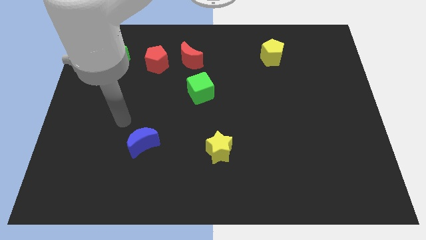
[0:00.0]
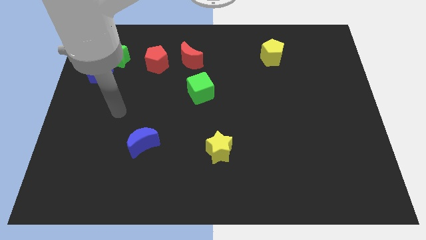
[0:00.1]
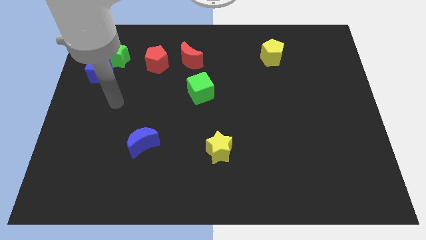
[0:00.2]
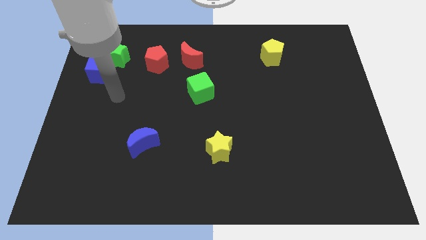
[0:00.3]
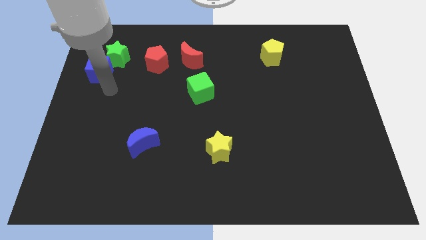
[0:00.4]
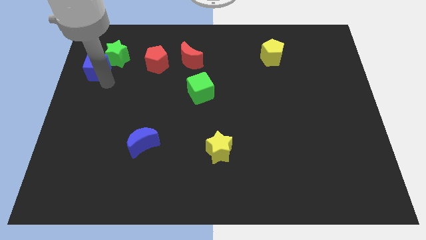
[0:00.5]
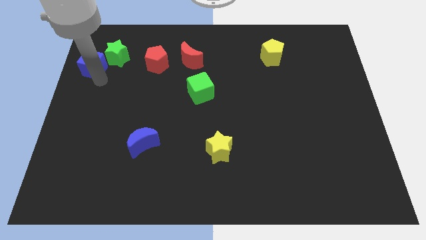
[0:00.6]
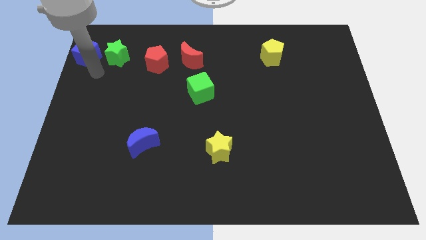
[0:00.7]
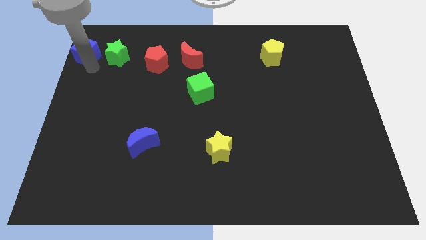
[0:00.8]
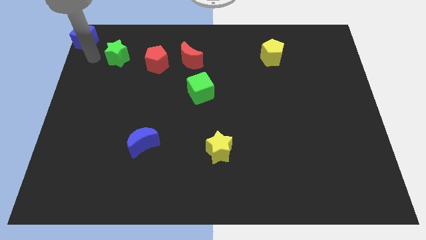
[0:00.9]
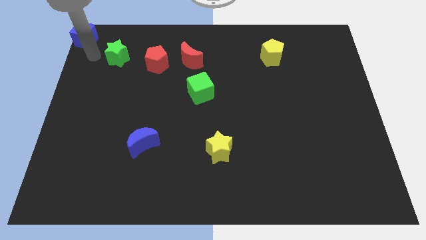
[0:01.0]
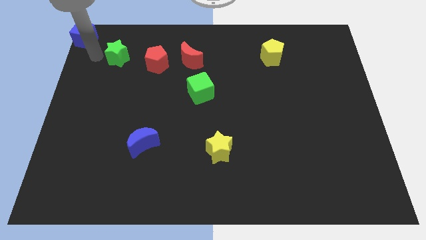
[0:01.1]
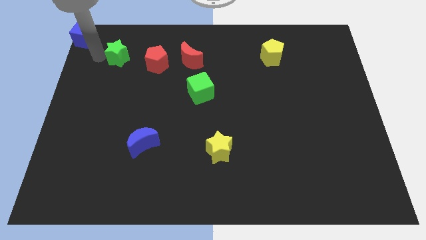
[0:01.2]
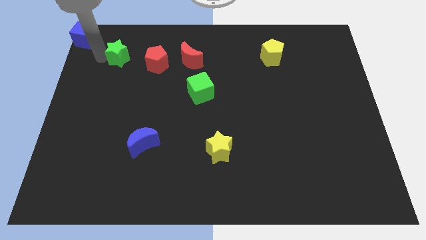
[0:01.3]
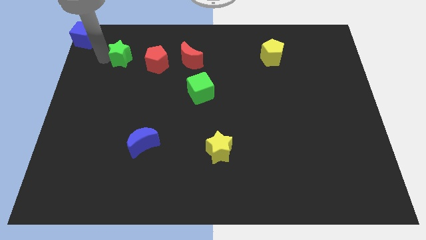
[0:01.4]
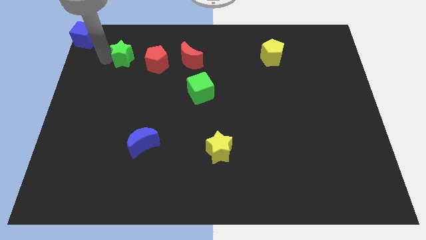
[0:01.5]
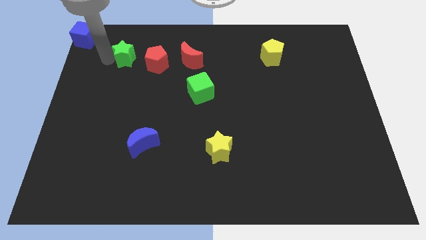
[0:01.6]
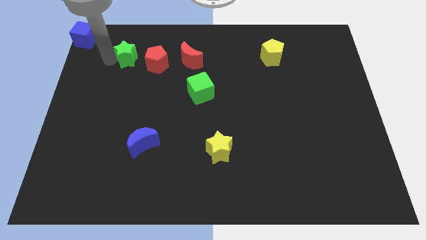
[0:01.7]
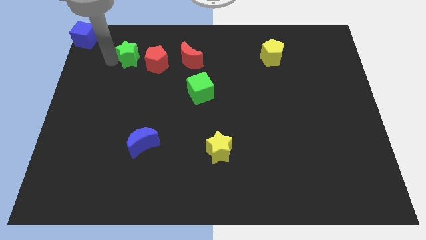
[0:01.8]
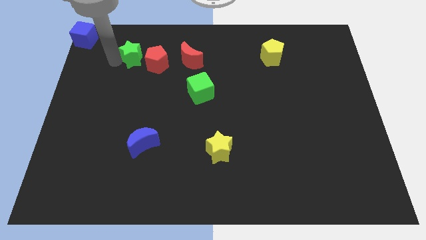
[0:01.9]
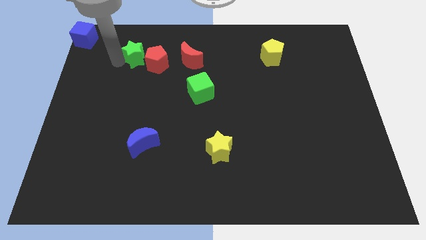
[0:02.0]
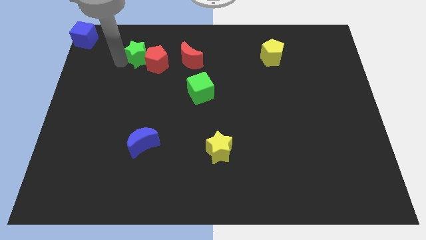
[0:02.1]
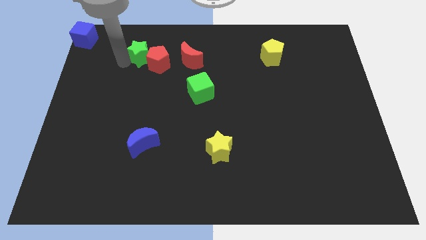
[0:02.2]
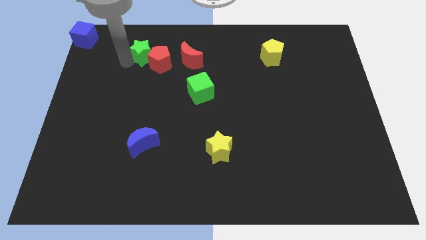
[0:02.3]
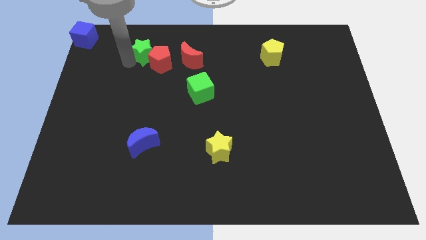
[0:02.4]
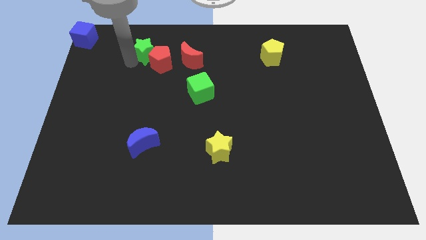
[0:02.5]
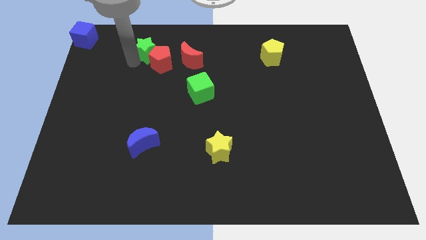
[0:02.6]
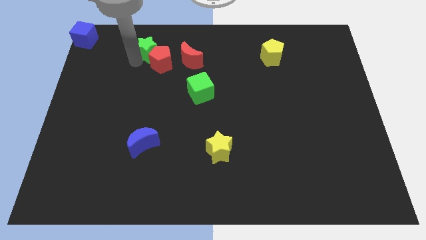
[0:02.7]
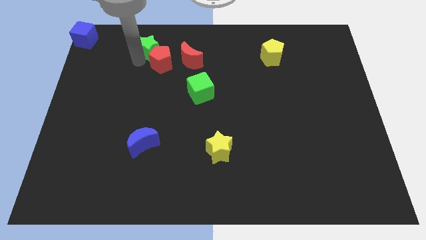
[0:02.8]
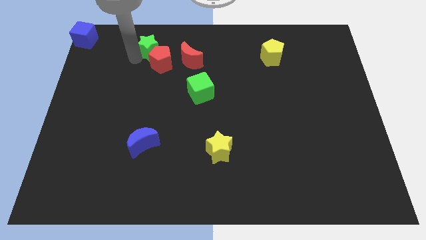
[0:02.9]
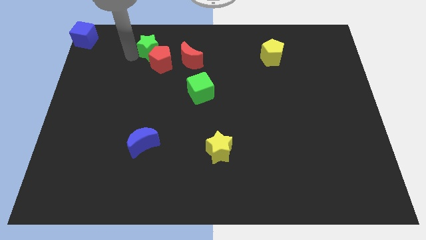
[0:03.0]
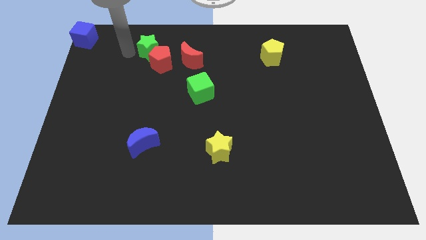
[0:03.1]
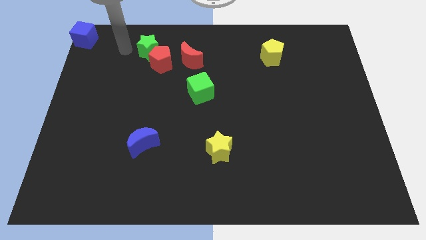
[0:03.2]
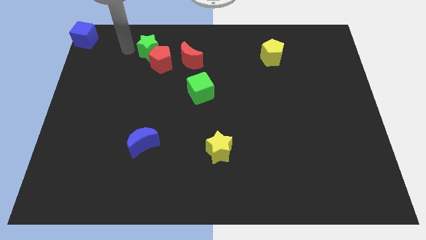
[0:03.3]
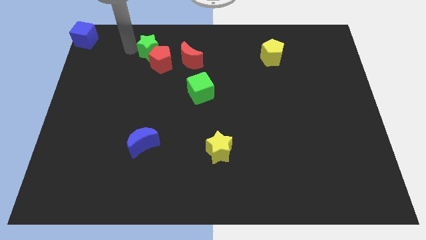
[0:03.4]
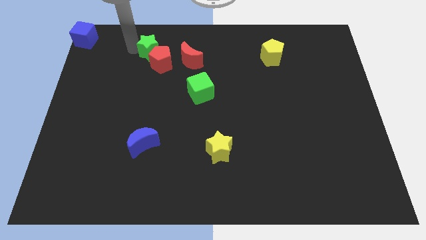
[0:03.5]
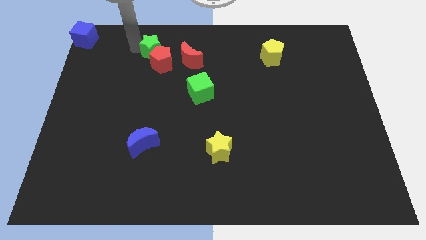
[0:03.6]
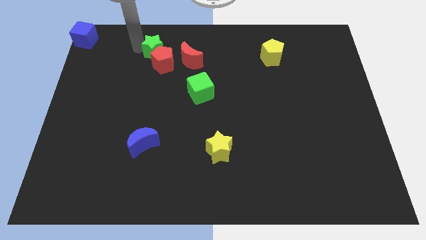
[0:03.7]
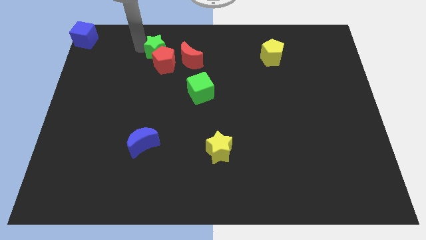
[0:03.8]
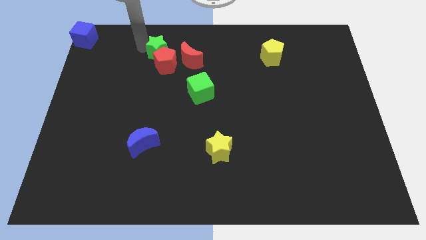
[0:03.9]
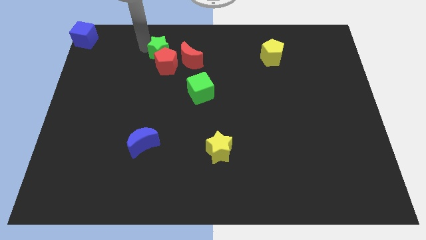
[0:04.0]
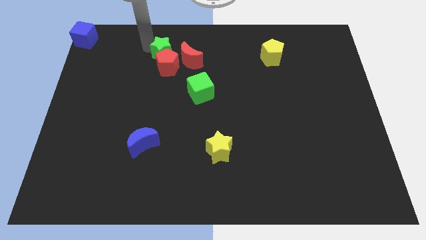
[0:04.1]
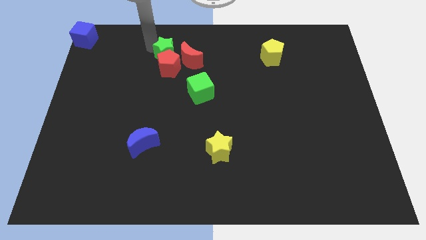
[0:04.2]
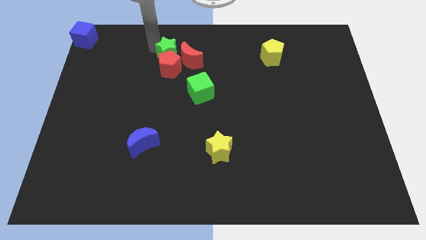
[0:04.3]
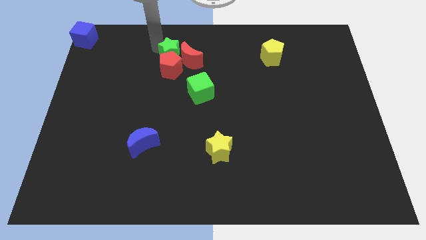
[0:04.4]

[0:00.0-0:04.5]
push the green star to the red moon

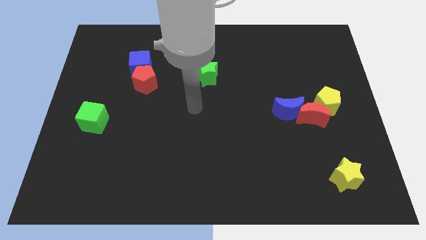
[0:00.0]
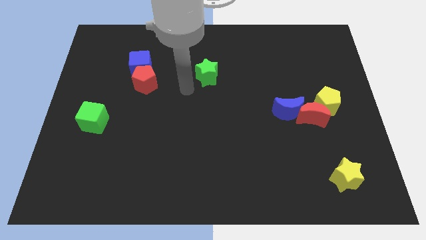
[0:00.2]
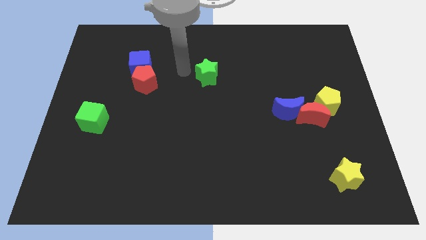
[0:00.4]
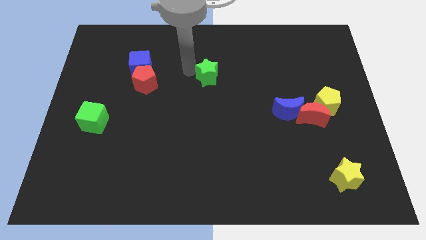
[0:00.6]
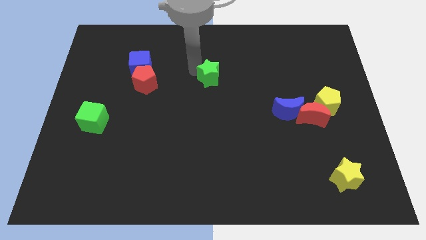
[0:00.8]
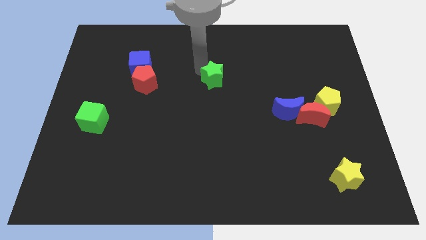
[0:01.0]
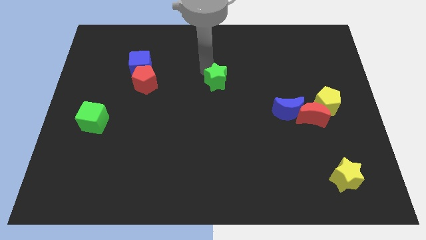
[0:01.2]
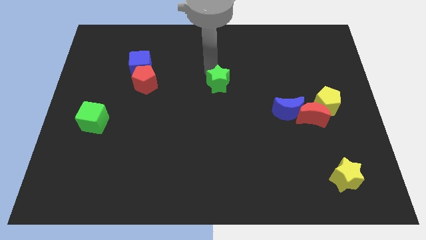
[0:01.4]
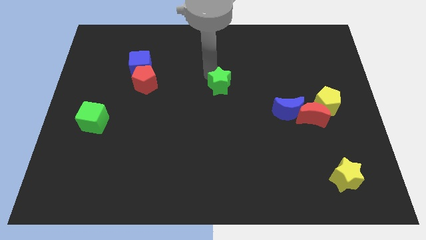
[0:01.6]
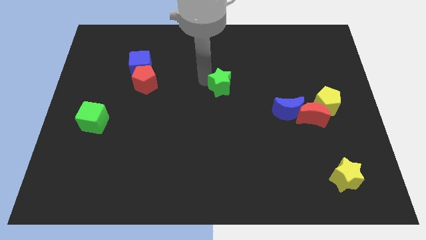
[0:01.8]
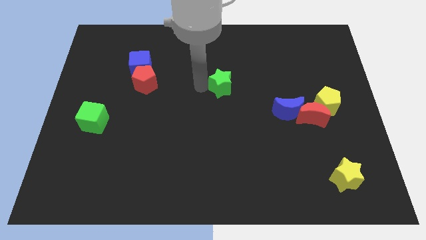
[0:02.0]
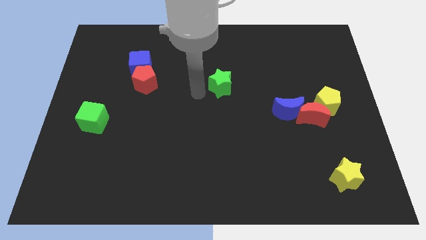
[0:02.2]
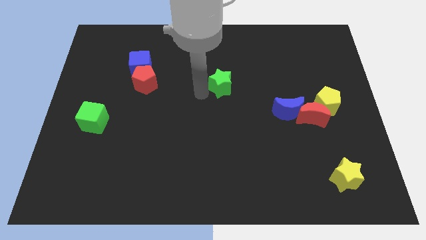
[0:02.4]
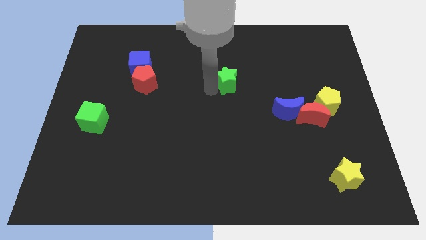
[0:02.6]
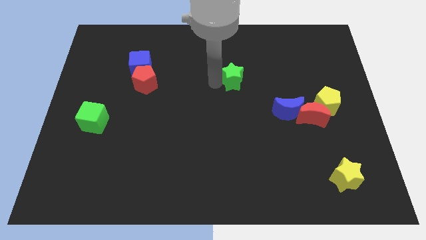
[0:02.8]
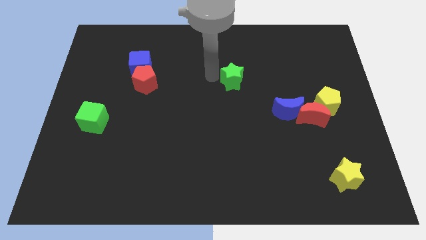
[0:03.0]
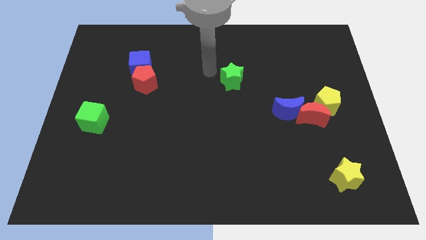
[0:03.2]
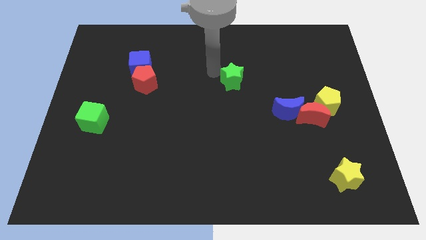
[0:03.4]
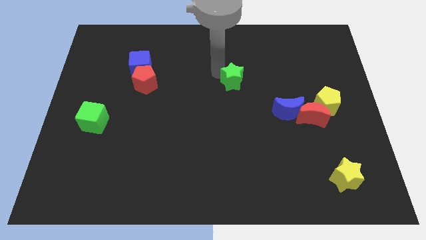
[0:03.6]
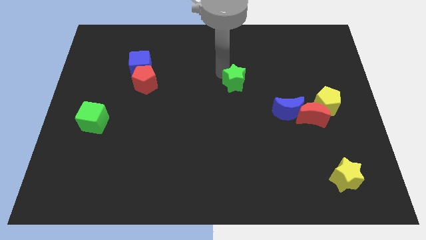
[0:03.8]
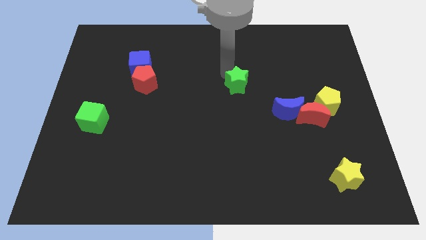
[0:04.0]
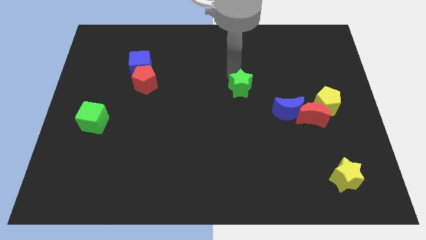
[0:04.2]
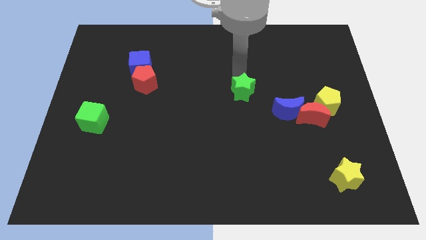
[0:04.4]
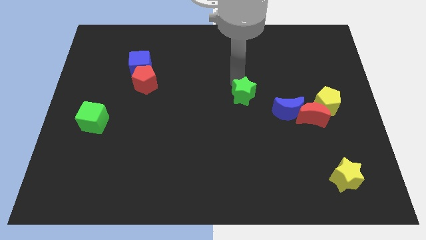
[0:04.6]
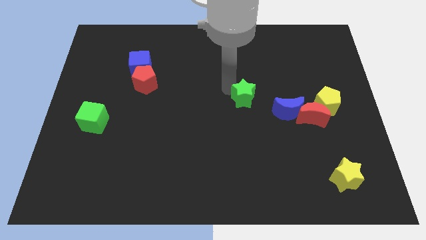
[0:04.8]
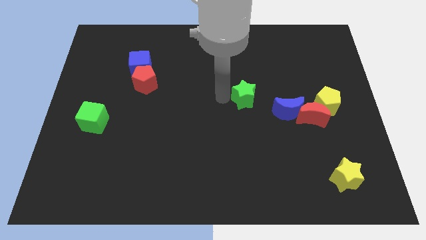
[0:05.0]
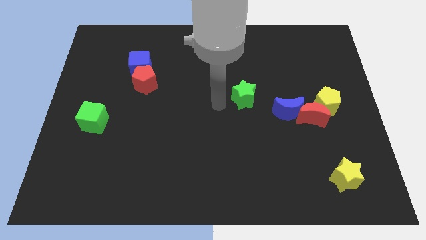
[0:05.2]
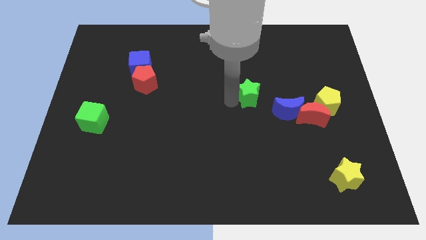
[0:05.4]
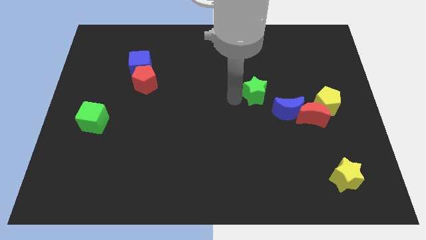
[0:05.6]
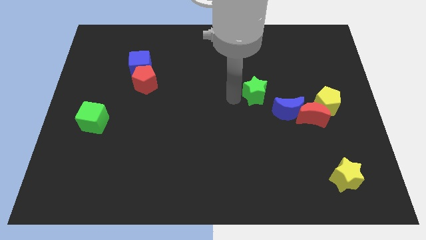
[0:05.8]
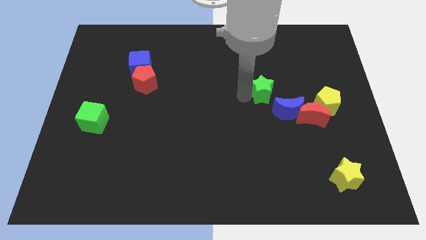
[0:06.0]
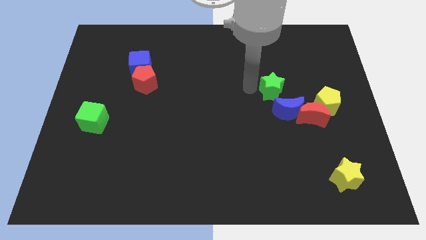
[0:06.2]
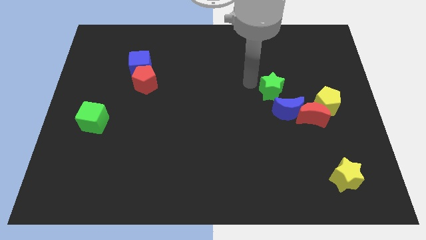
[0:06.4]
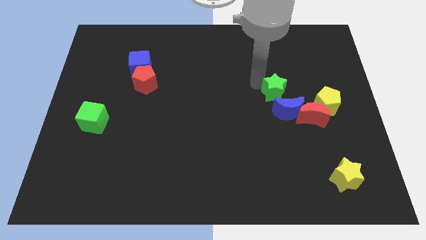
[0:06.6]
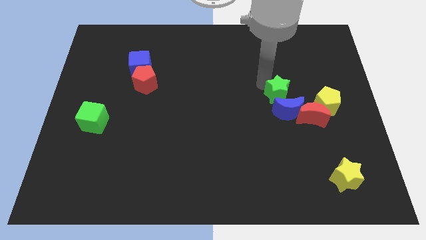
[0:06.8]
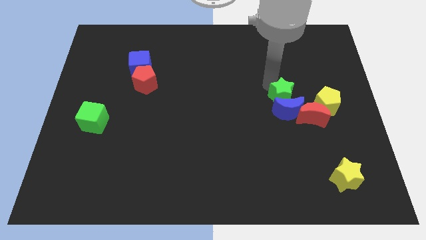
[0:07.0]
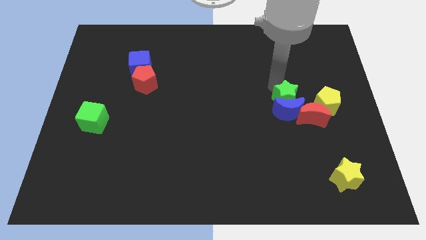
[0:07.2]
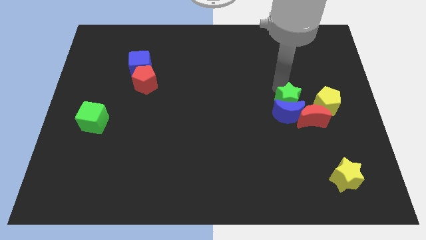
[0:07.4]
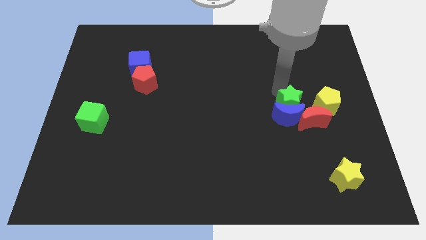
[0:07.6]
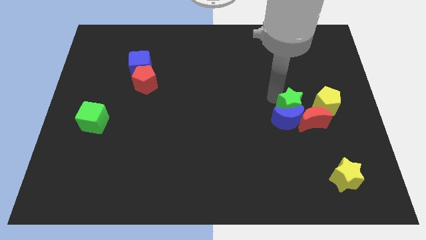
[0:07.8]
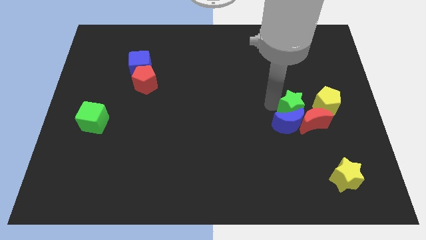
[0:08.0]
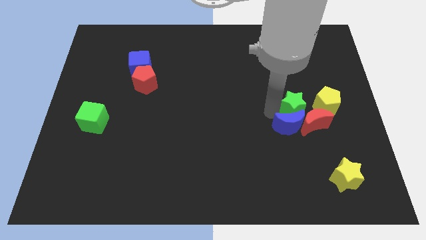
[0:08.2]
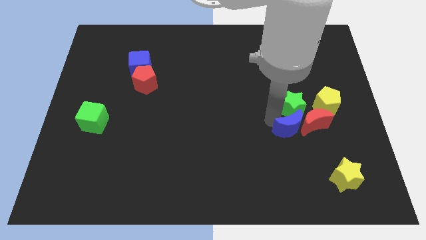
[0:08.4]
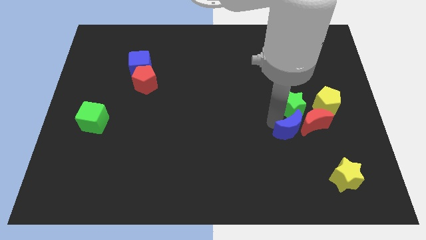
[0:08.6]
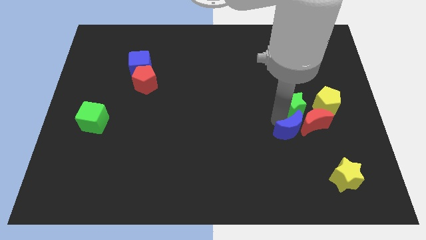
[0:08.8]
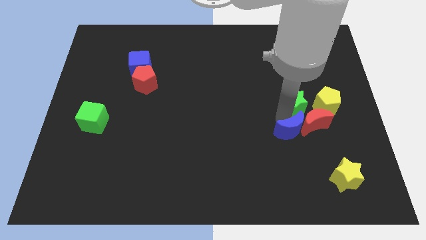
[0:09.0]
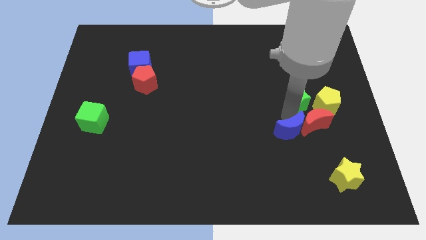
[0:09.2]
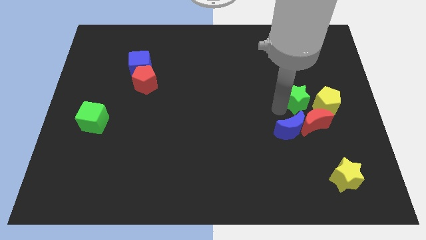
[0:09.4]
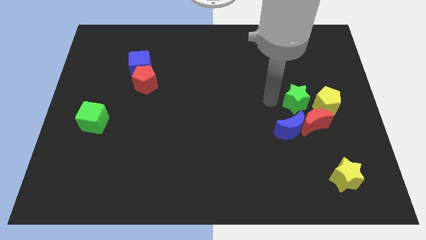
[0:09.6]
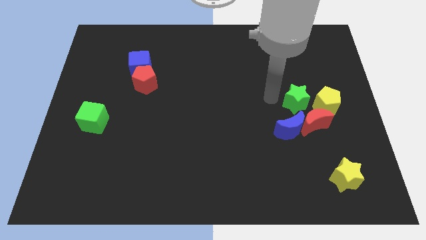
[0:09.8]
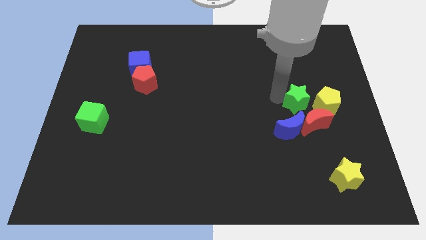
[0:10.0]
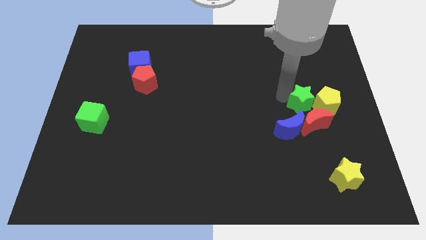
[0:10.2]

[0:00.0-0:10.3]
put the green star next to the yellow pentagon
